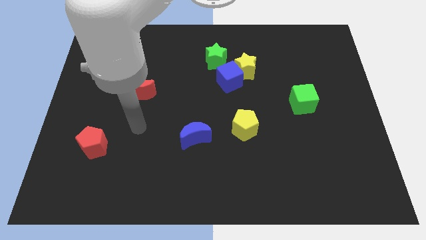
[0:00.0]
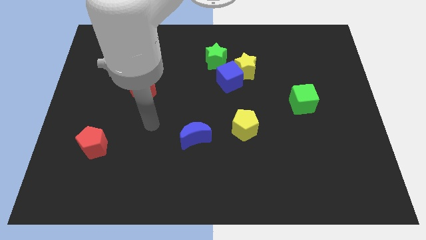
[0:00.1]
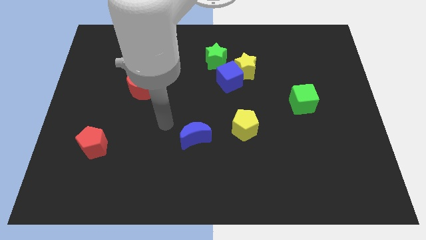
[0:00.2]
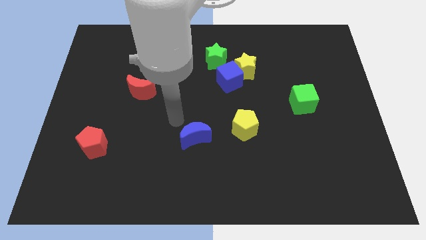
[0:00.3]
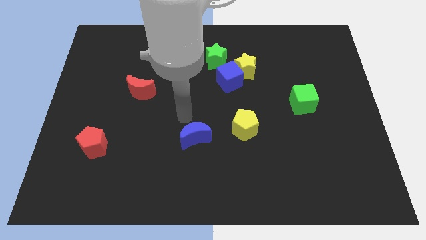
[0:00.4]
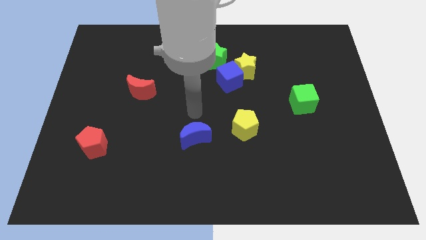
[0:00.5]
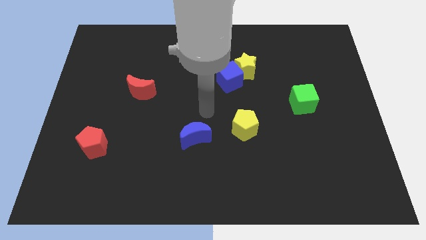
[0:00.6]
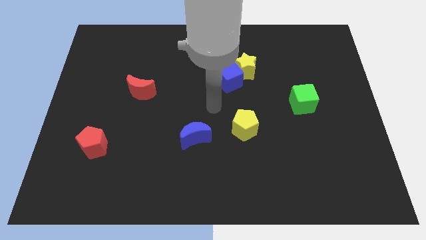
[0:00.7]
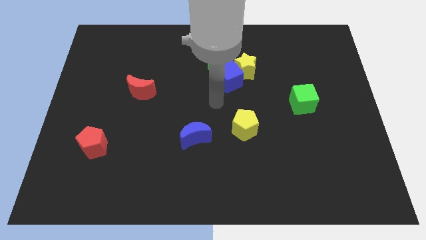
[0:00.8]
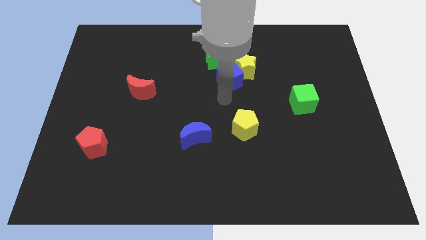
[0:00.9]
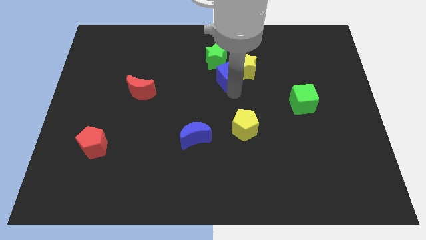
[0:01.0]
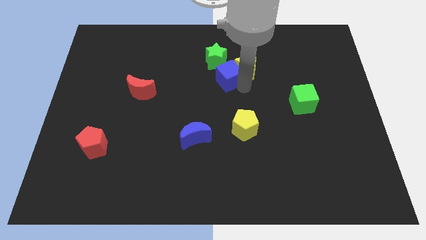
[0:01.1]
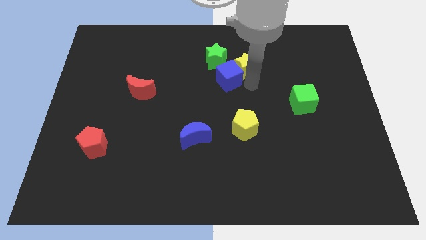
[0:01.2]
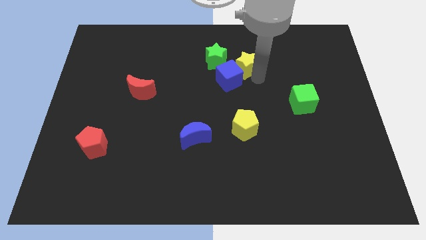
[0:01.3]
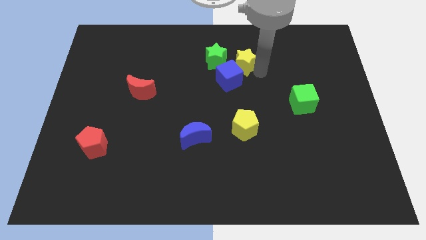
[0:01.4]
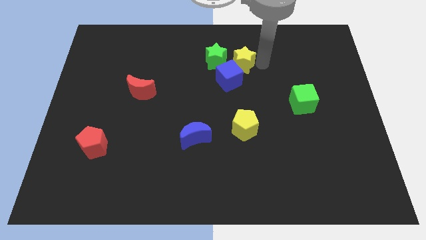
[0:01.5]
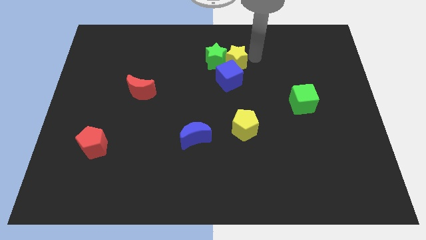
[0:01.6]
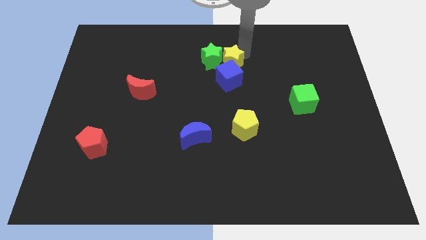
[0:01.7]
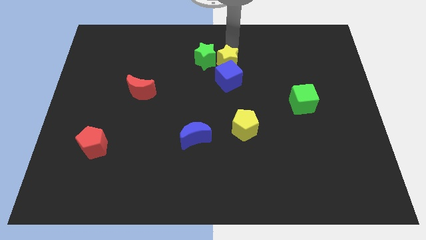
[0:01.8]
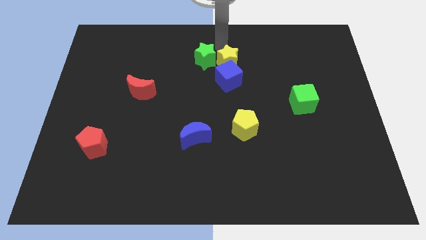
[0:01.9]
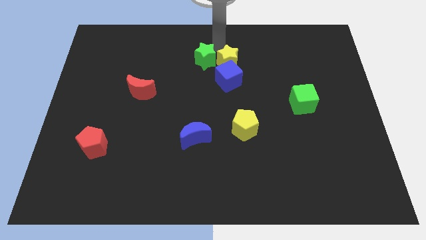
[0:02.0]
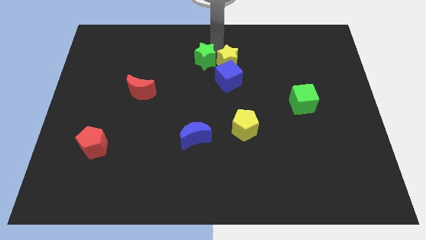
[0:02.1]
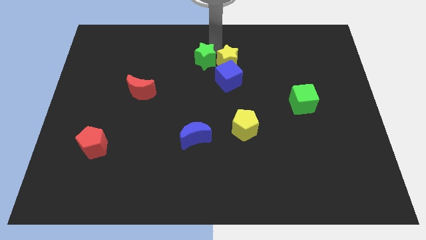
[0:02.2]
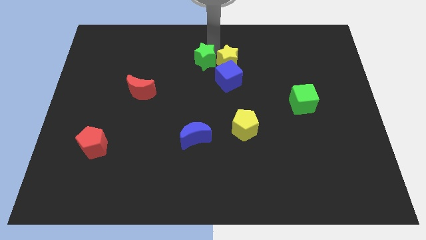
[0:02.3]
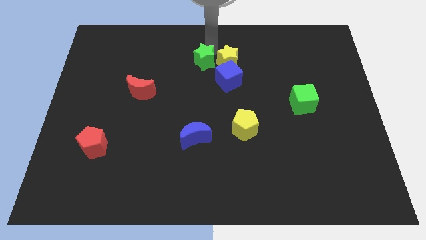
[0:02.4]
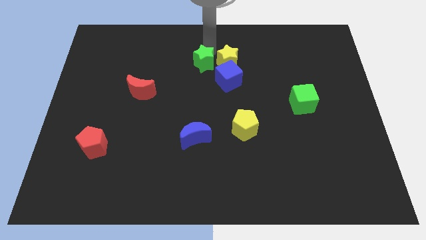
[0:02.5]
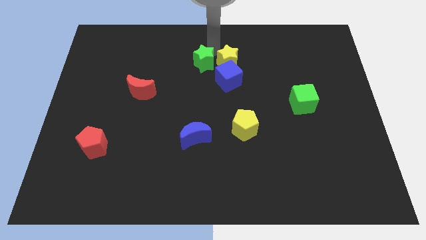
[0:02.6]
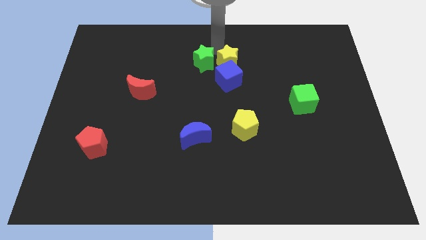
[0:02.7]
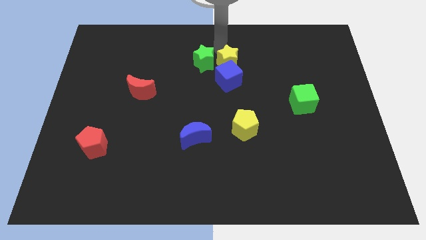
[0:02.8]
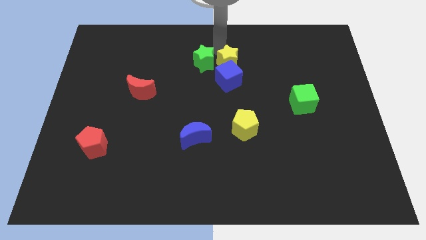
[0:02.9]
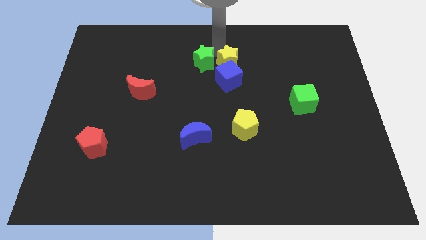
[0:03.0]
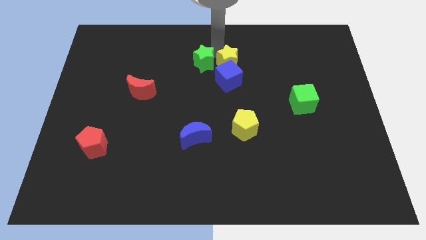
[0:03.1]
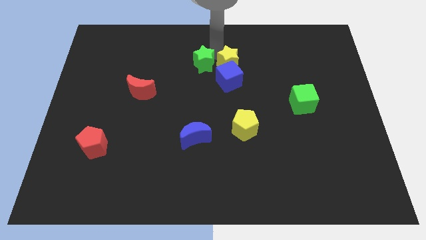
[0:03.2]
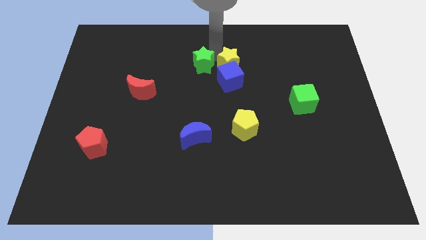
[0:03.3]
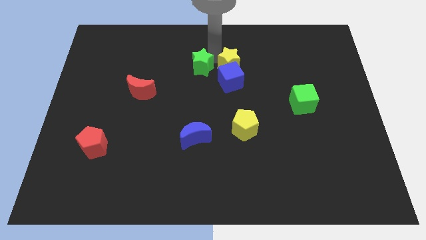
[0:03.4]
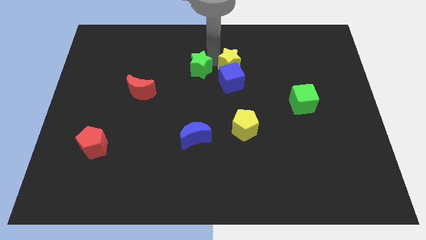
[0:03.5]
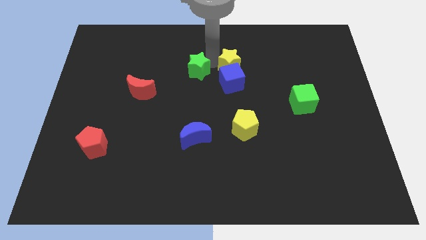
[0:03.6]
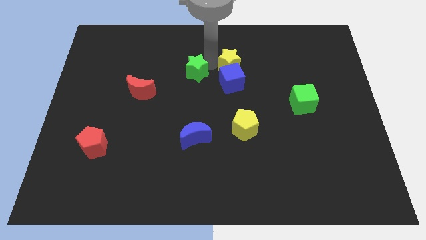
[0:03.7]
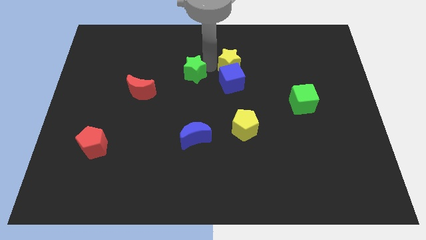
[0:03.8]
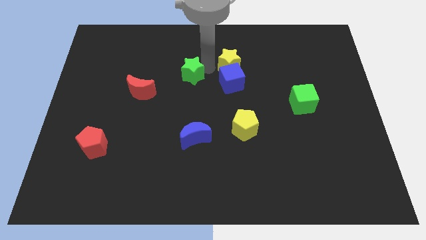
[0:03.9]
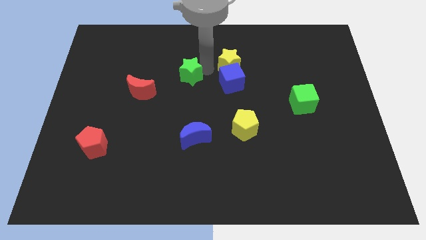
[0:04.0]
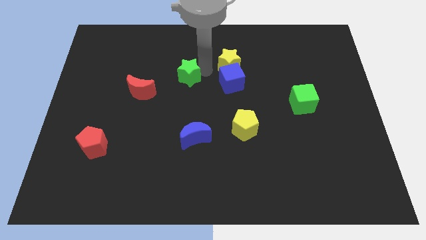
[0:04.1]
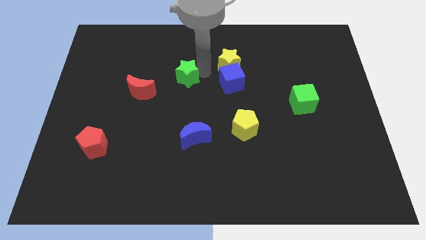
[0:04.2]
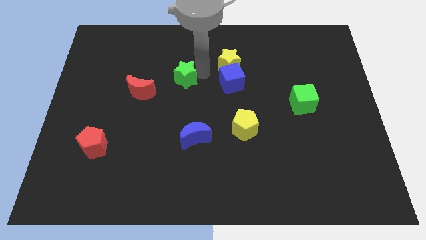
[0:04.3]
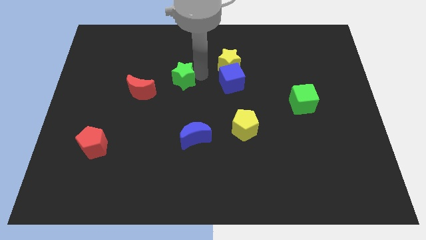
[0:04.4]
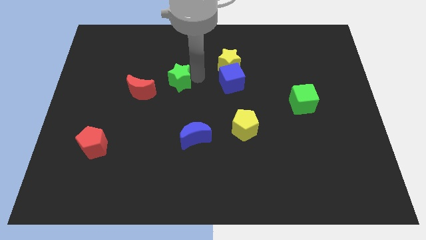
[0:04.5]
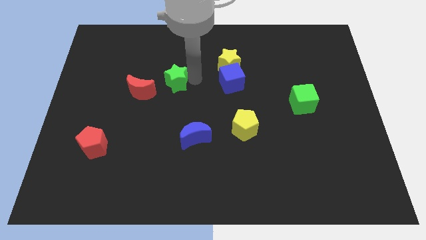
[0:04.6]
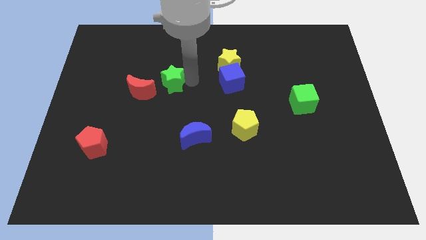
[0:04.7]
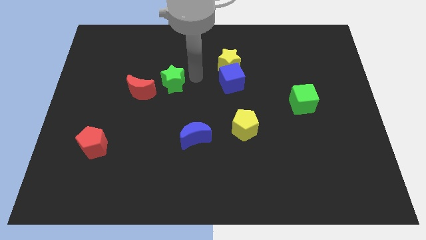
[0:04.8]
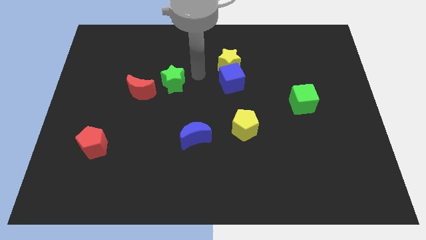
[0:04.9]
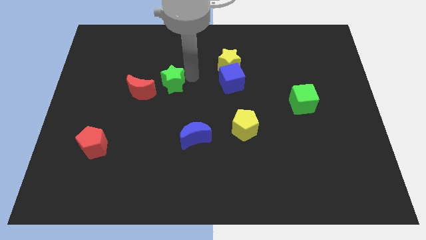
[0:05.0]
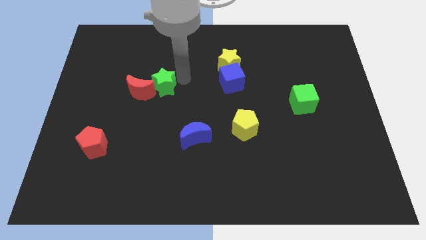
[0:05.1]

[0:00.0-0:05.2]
slide the green star close to the red moon

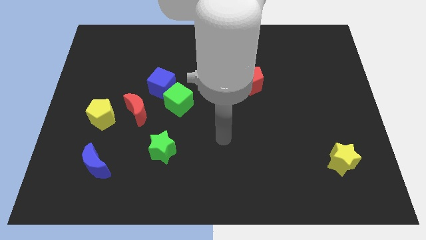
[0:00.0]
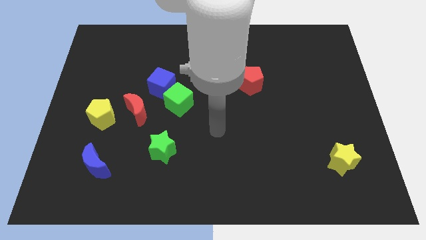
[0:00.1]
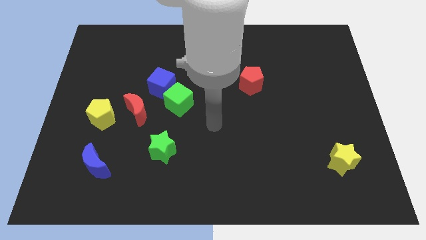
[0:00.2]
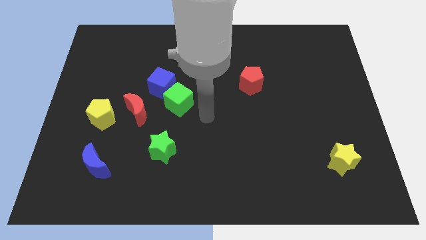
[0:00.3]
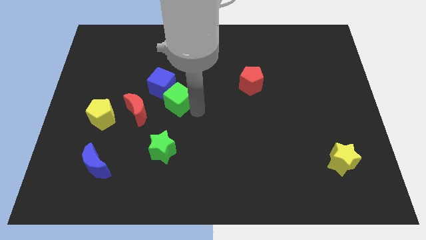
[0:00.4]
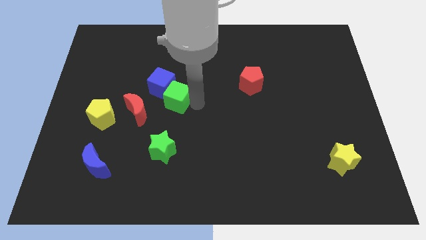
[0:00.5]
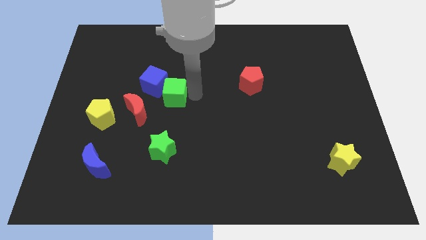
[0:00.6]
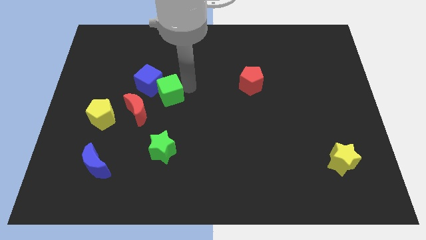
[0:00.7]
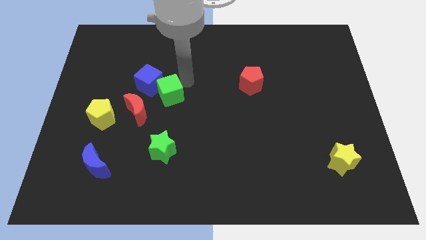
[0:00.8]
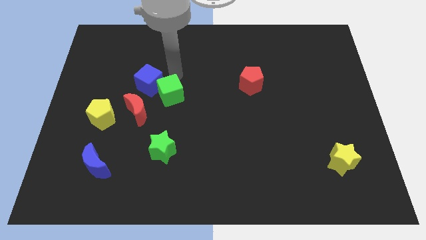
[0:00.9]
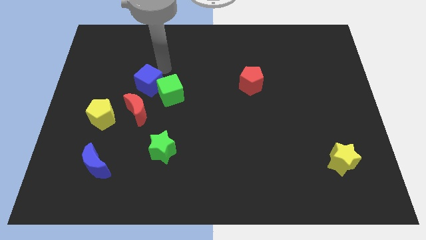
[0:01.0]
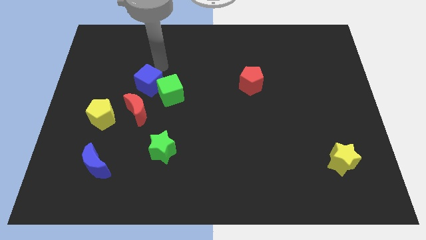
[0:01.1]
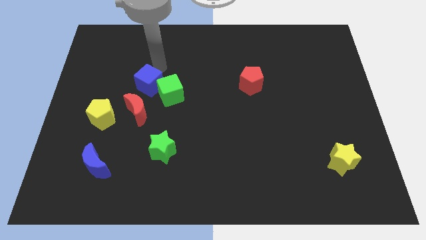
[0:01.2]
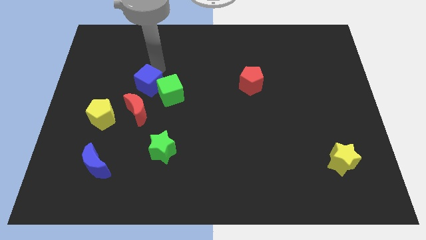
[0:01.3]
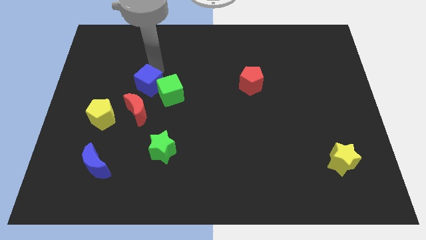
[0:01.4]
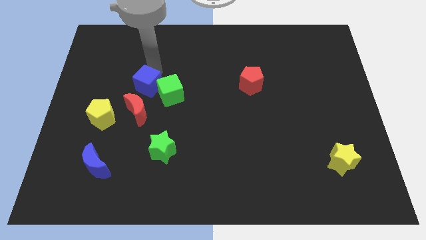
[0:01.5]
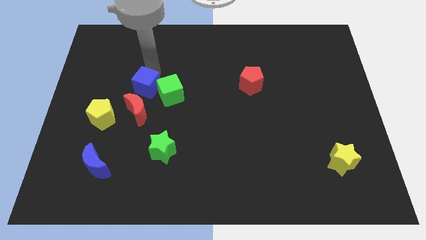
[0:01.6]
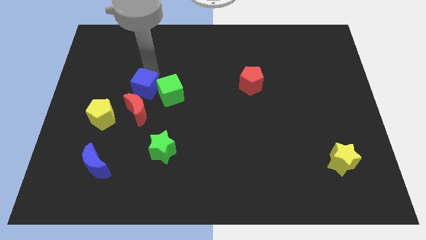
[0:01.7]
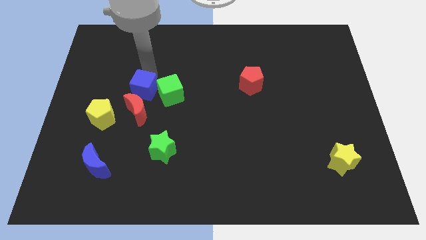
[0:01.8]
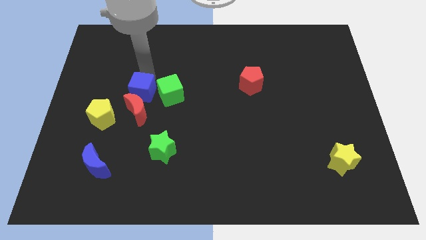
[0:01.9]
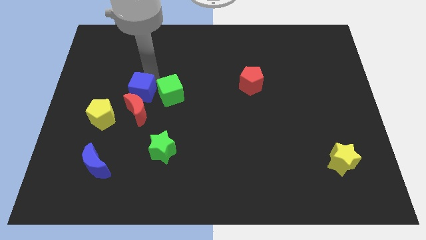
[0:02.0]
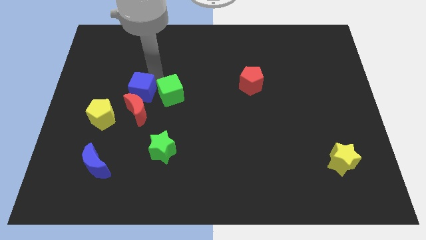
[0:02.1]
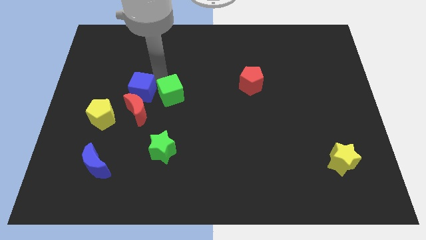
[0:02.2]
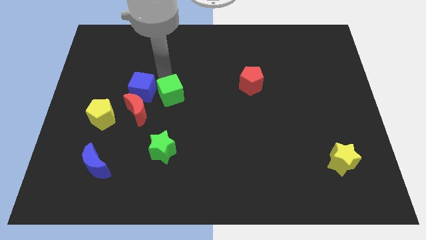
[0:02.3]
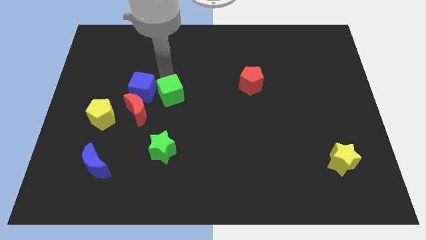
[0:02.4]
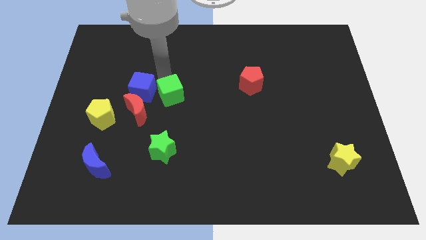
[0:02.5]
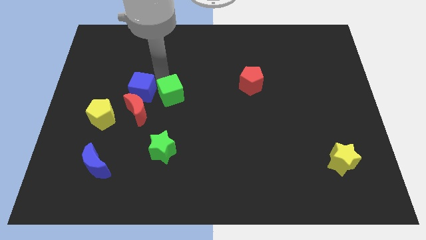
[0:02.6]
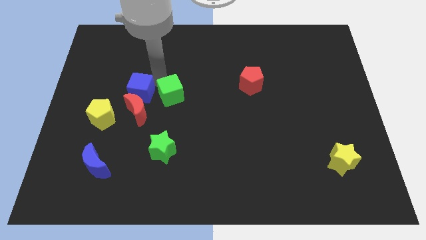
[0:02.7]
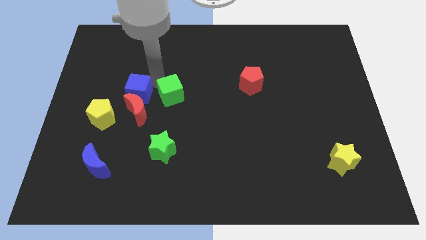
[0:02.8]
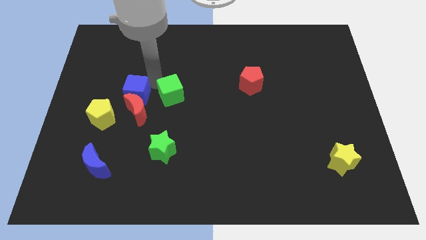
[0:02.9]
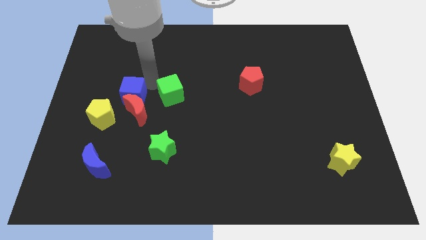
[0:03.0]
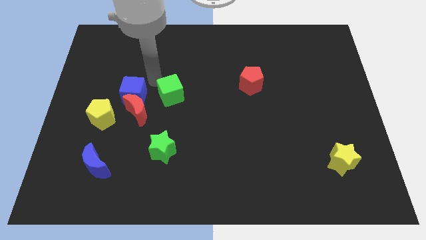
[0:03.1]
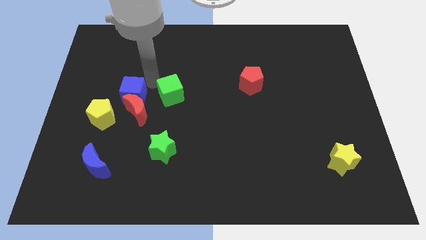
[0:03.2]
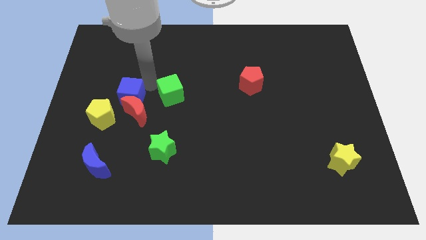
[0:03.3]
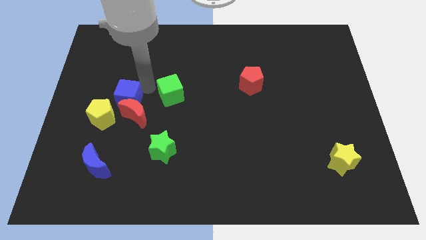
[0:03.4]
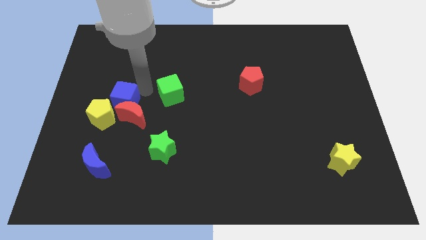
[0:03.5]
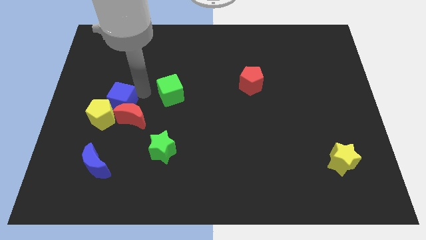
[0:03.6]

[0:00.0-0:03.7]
move the blue cube towards the yellow pentagon
